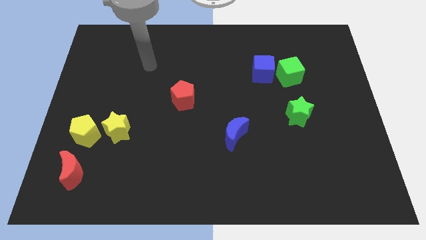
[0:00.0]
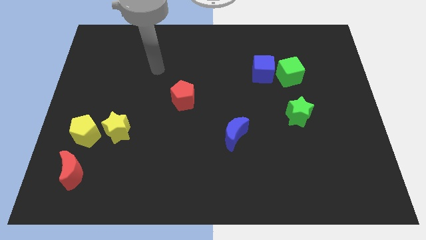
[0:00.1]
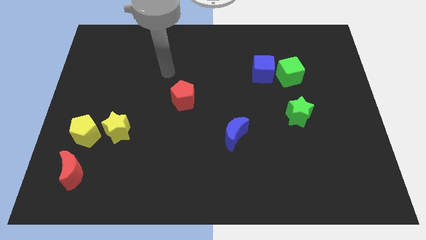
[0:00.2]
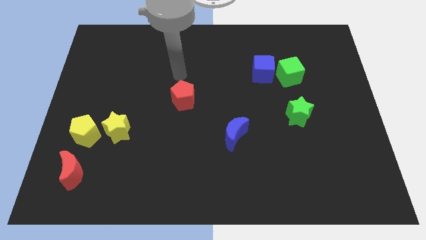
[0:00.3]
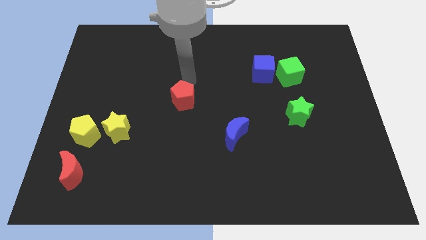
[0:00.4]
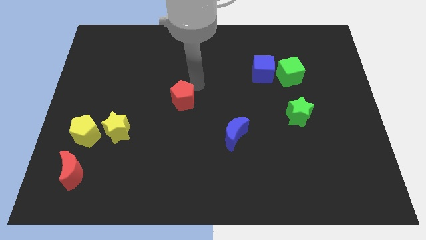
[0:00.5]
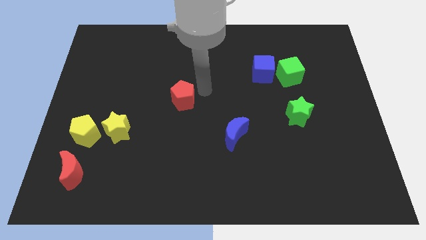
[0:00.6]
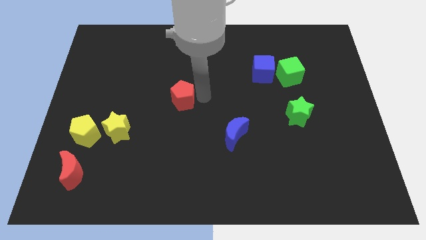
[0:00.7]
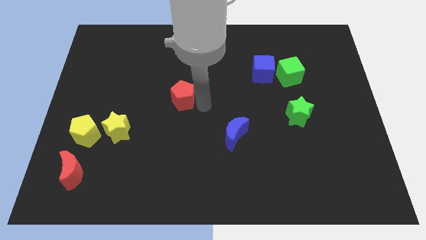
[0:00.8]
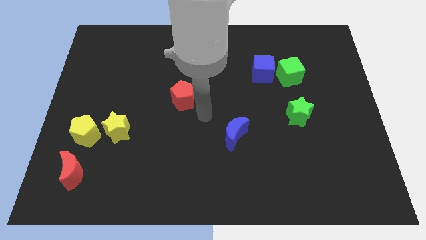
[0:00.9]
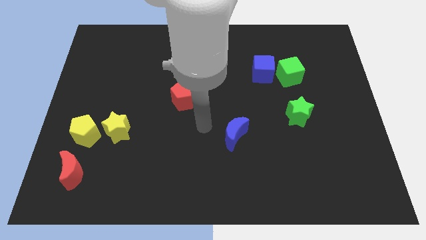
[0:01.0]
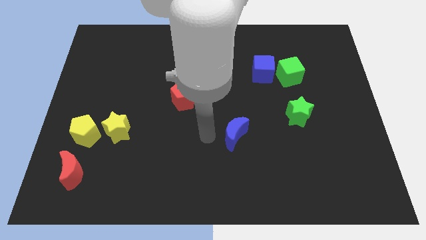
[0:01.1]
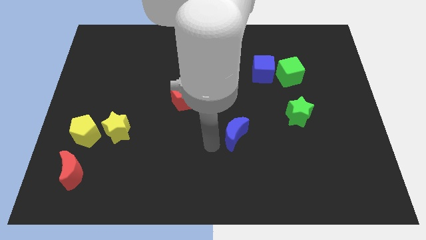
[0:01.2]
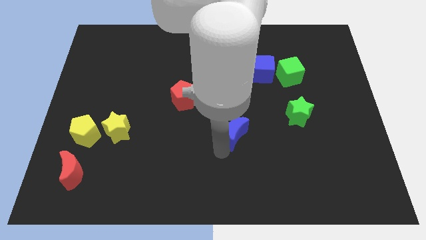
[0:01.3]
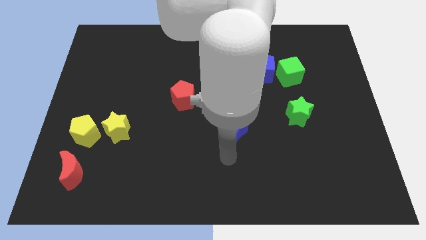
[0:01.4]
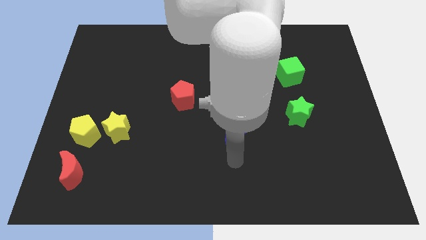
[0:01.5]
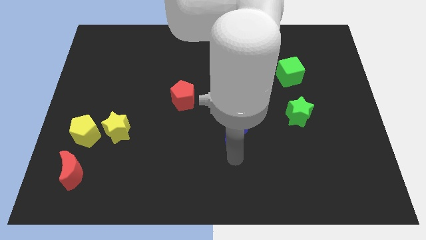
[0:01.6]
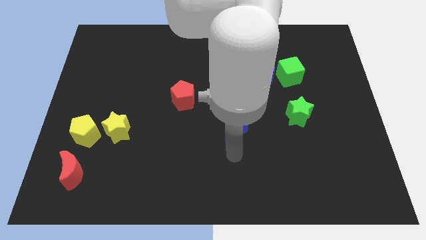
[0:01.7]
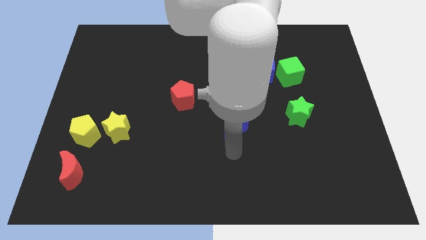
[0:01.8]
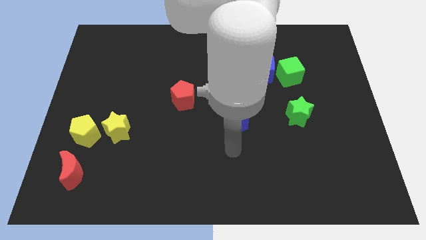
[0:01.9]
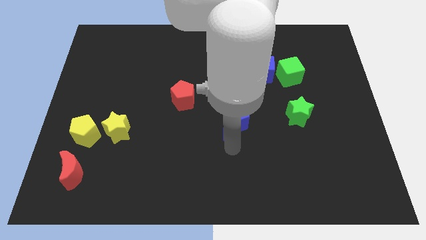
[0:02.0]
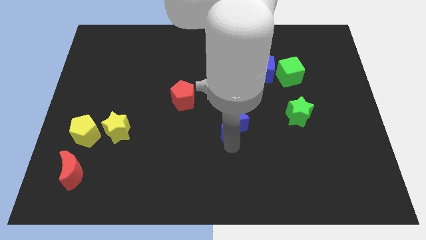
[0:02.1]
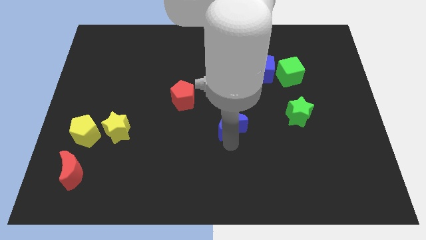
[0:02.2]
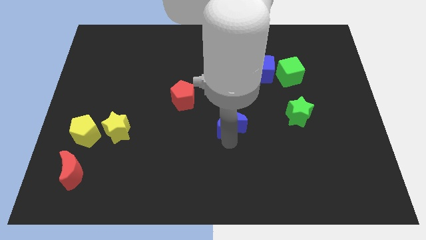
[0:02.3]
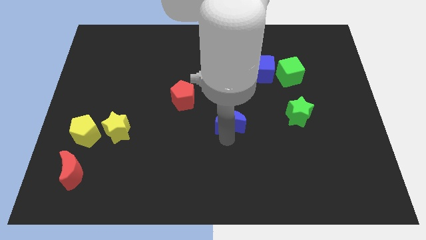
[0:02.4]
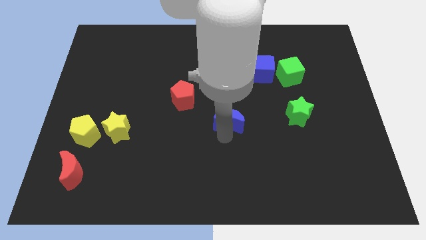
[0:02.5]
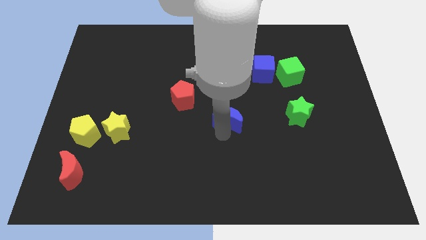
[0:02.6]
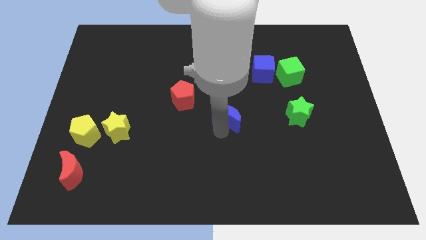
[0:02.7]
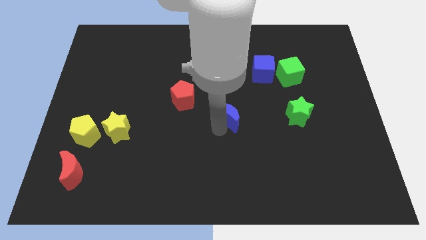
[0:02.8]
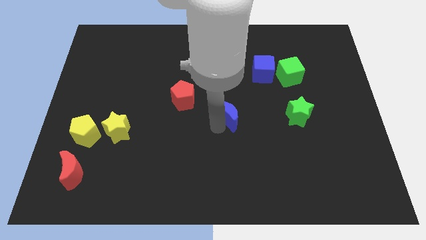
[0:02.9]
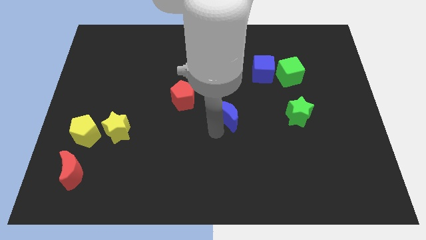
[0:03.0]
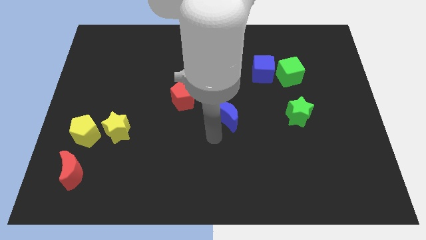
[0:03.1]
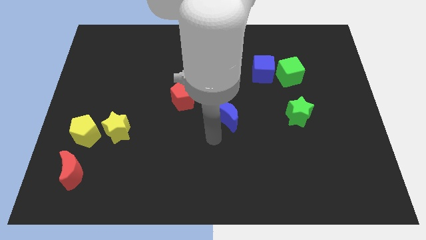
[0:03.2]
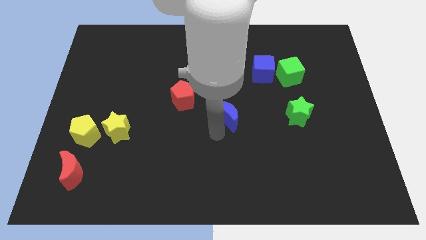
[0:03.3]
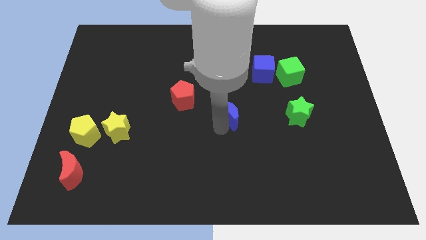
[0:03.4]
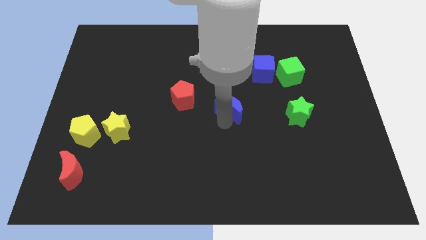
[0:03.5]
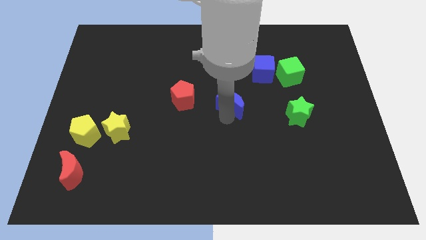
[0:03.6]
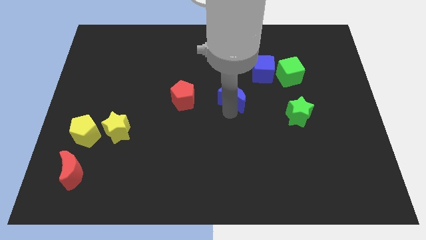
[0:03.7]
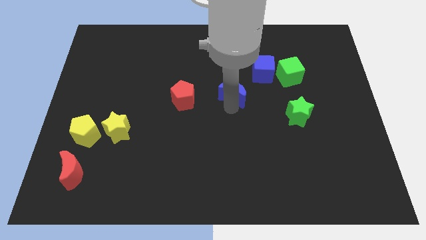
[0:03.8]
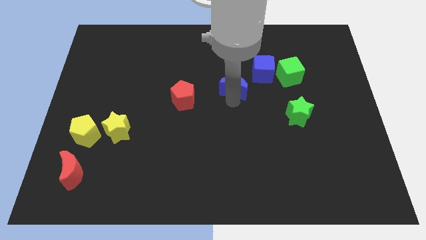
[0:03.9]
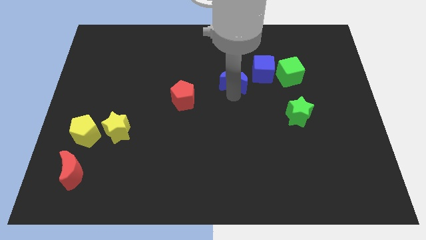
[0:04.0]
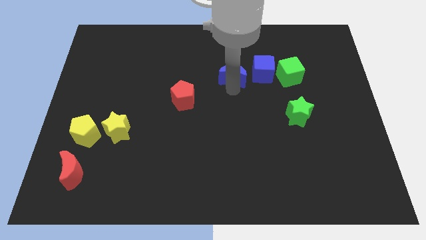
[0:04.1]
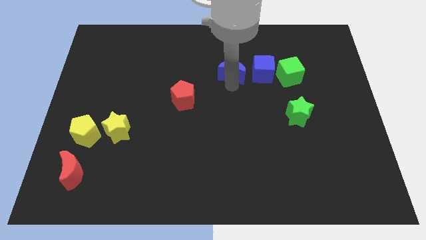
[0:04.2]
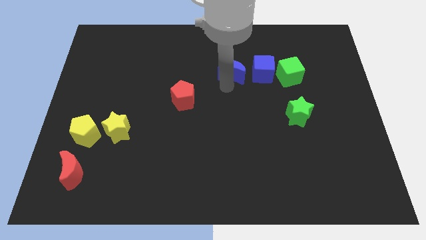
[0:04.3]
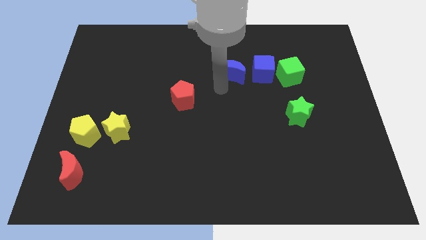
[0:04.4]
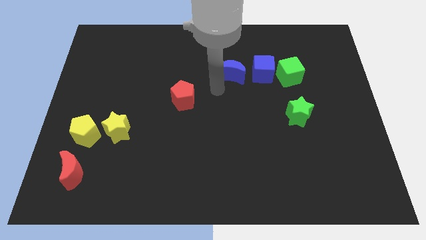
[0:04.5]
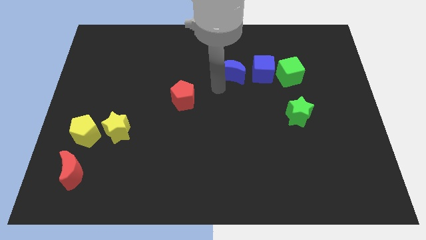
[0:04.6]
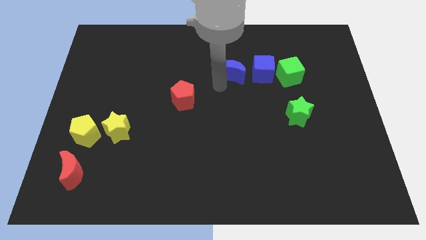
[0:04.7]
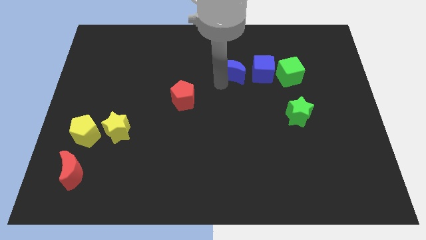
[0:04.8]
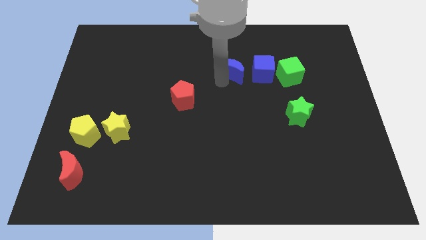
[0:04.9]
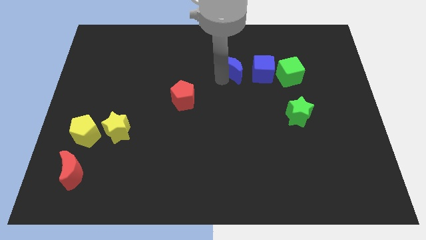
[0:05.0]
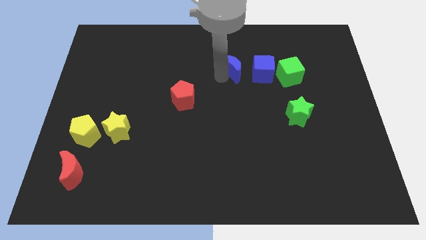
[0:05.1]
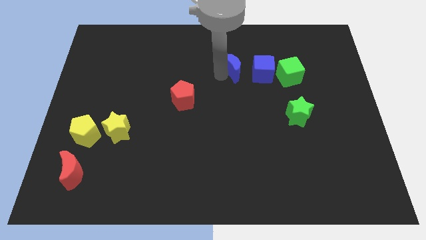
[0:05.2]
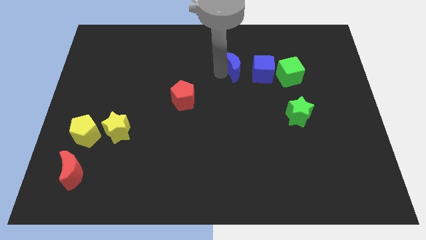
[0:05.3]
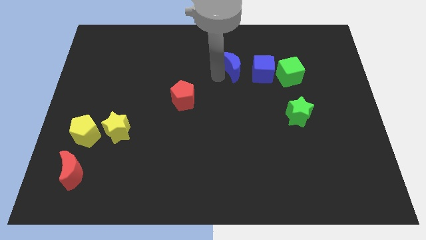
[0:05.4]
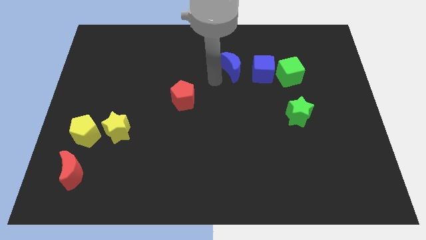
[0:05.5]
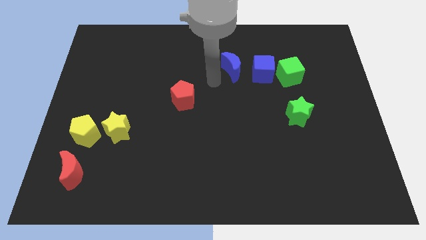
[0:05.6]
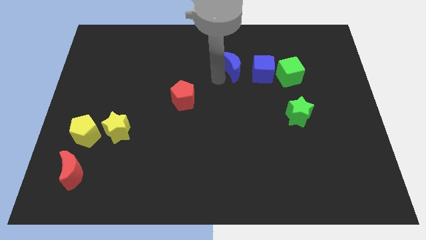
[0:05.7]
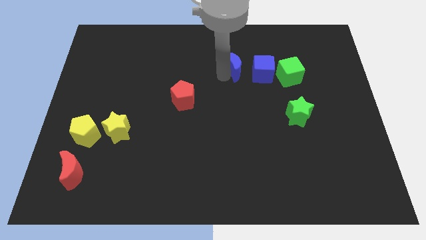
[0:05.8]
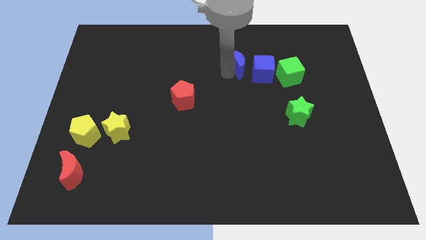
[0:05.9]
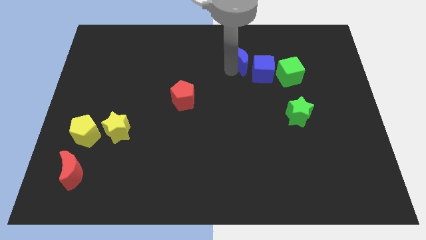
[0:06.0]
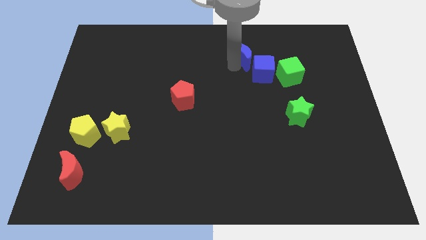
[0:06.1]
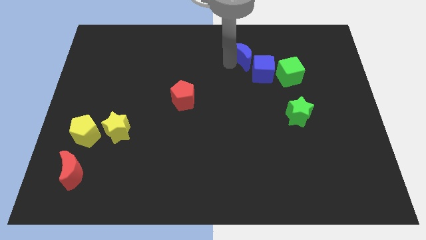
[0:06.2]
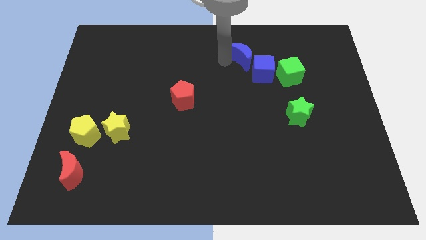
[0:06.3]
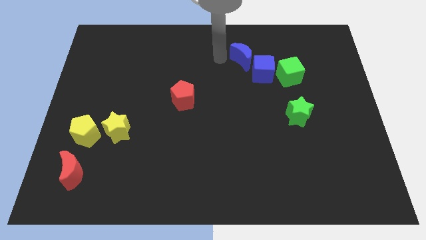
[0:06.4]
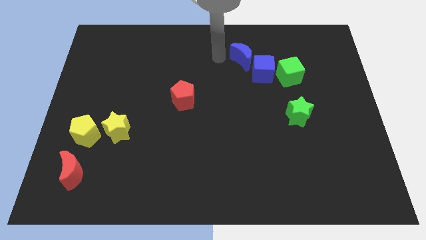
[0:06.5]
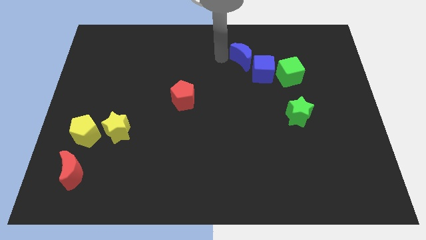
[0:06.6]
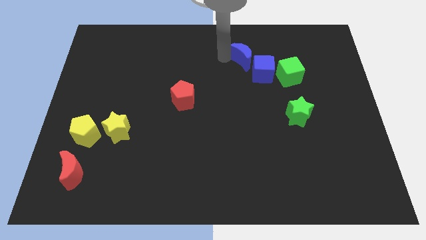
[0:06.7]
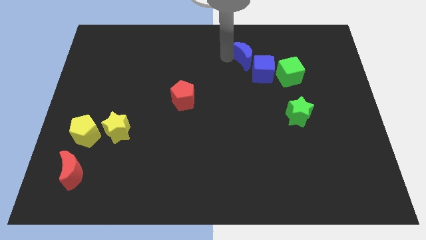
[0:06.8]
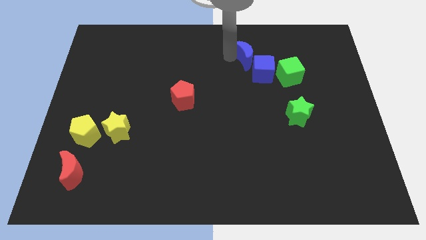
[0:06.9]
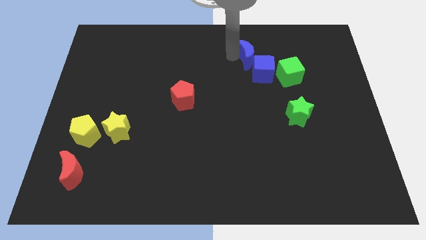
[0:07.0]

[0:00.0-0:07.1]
push the blue moon to the top left side of the green cube
